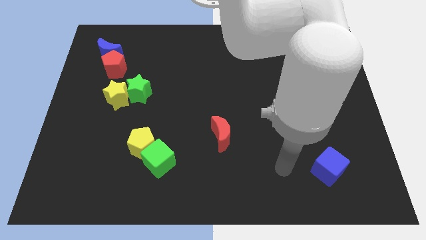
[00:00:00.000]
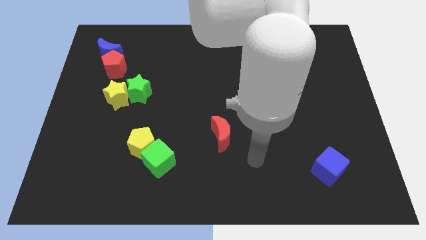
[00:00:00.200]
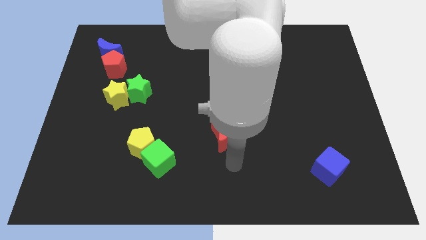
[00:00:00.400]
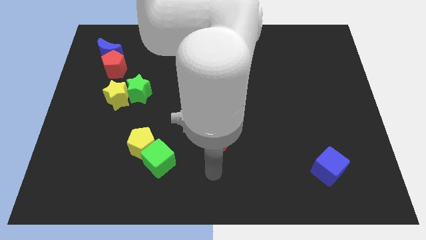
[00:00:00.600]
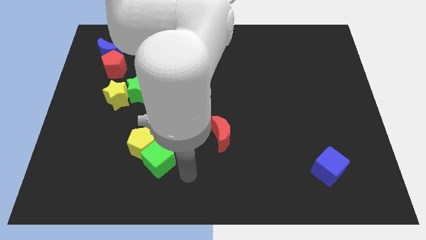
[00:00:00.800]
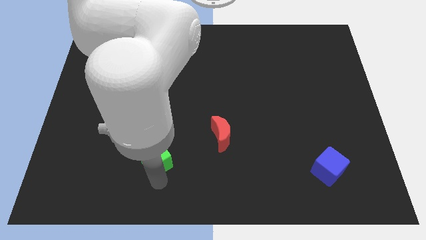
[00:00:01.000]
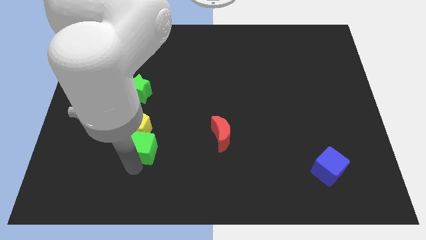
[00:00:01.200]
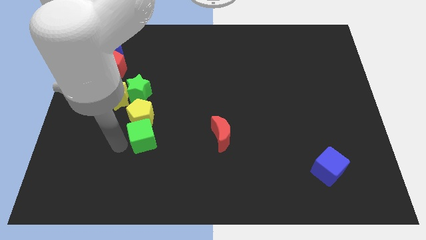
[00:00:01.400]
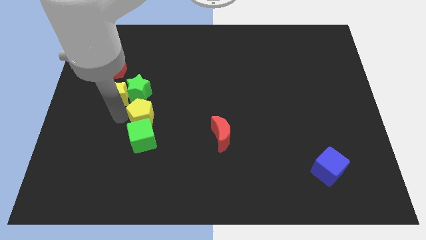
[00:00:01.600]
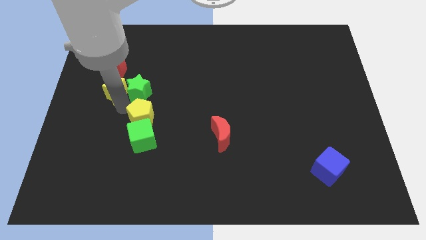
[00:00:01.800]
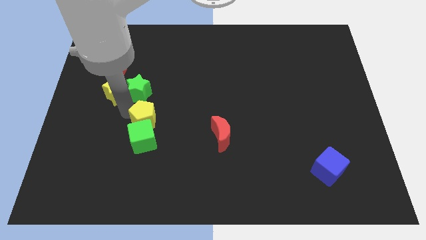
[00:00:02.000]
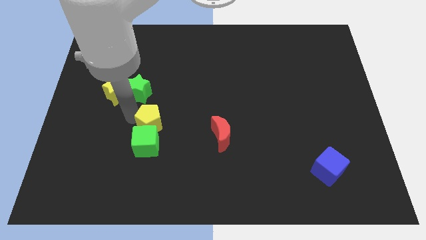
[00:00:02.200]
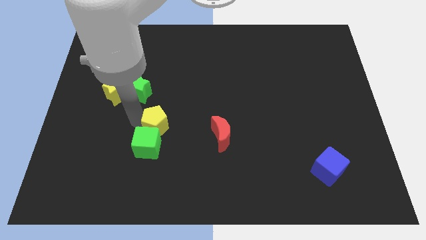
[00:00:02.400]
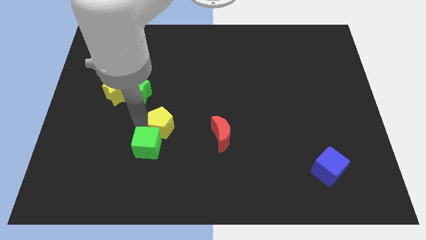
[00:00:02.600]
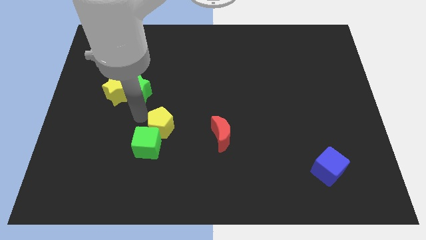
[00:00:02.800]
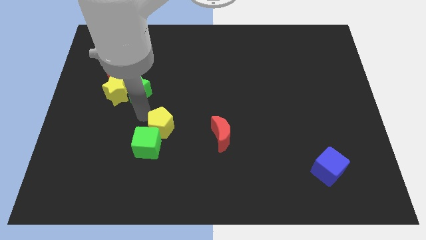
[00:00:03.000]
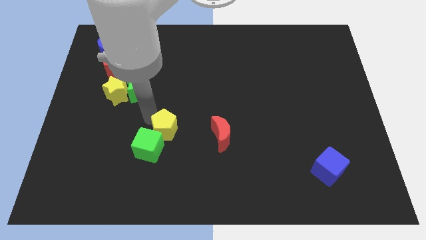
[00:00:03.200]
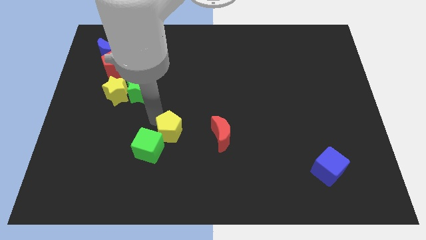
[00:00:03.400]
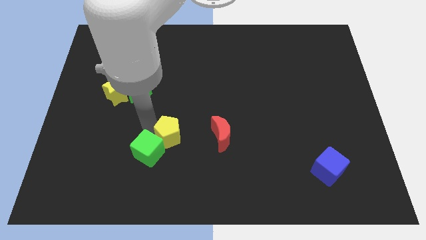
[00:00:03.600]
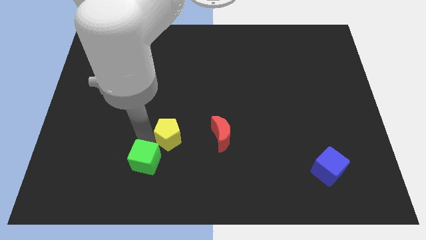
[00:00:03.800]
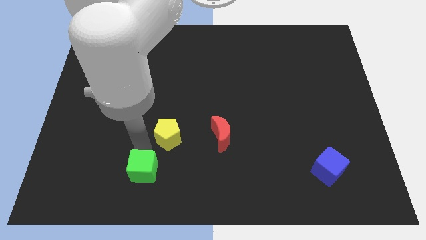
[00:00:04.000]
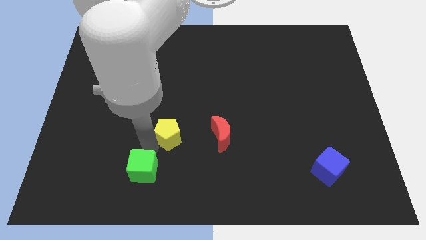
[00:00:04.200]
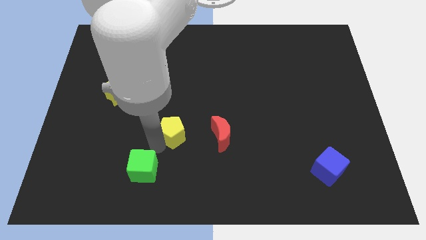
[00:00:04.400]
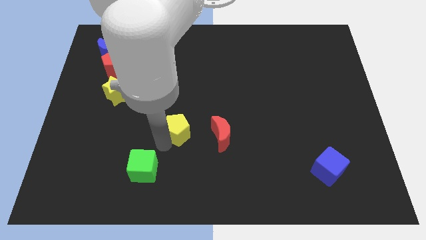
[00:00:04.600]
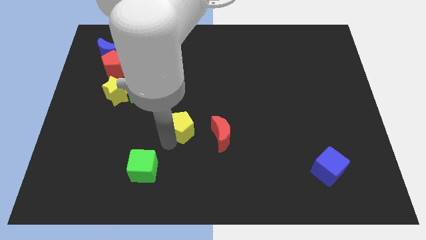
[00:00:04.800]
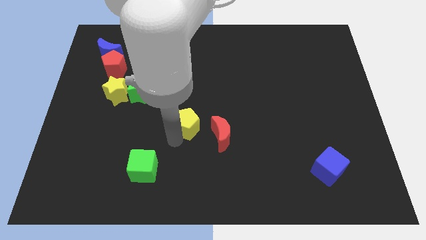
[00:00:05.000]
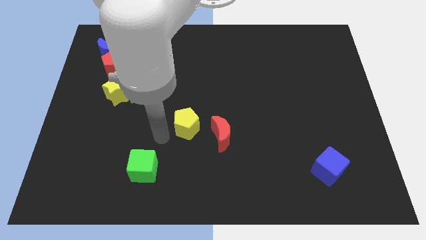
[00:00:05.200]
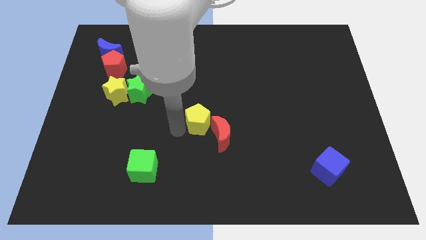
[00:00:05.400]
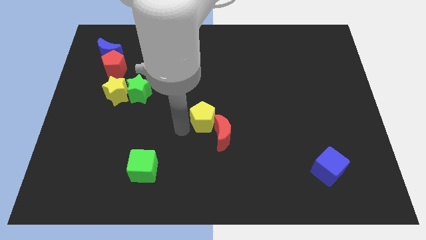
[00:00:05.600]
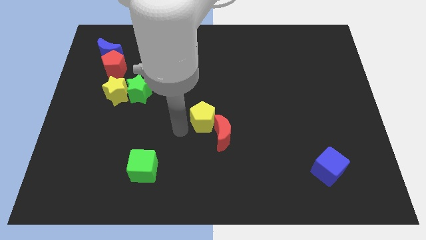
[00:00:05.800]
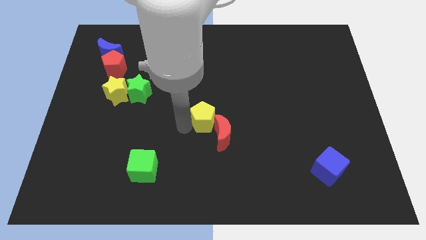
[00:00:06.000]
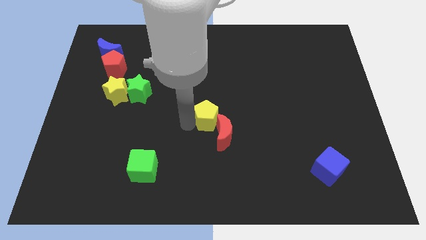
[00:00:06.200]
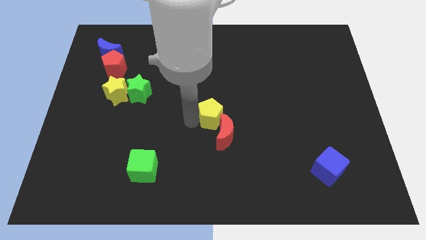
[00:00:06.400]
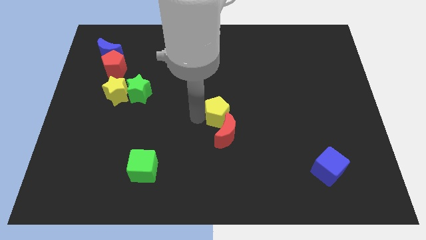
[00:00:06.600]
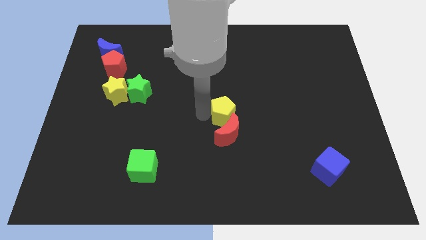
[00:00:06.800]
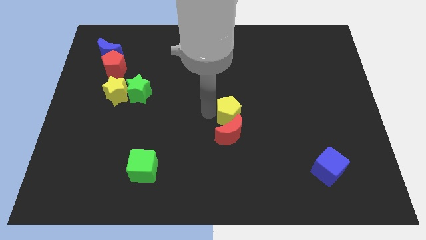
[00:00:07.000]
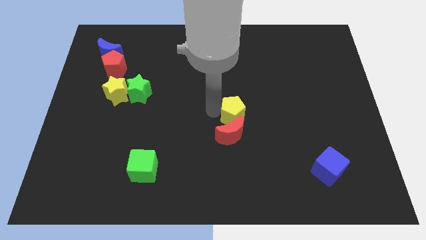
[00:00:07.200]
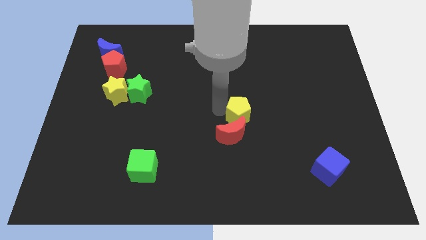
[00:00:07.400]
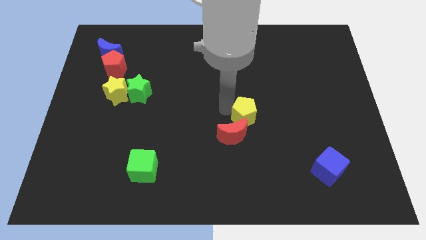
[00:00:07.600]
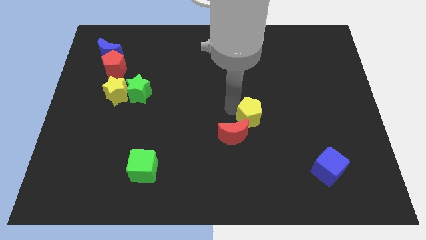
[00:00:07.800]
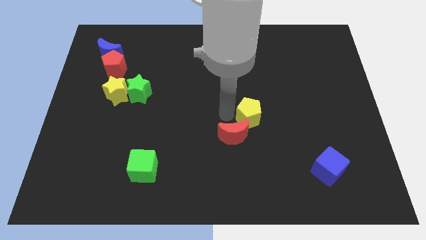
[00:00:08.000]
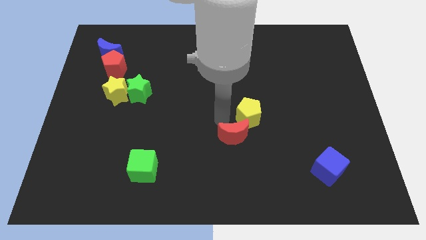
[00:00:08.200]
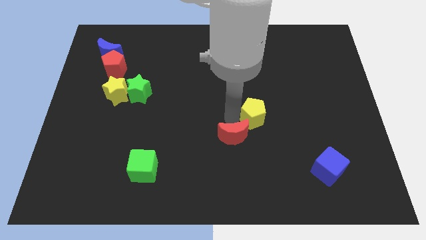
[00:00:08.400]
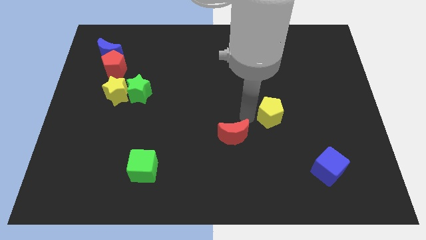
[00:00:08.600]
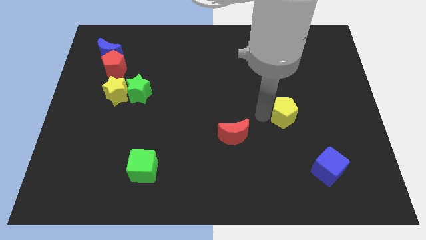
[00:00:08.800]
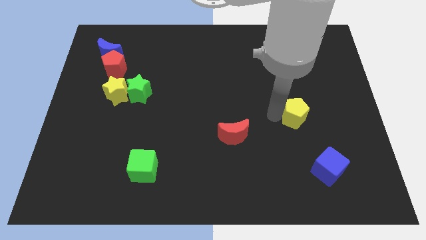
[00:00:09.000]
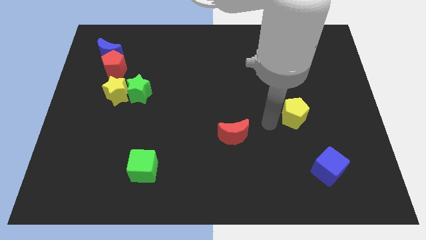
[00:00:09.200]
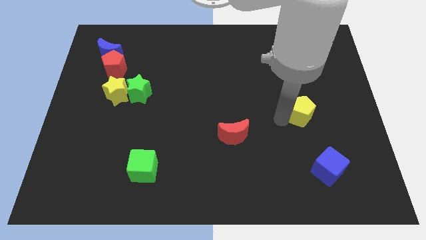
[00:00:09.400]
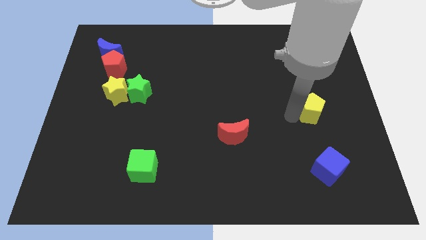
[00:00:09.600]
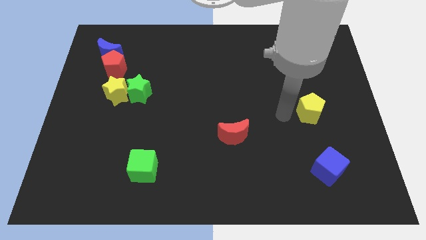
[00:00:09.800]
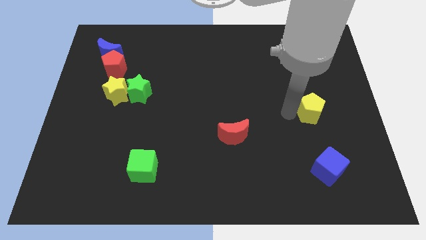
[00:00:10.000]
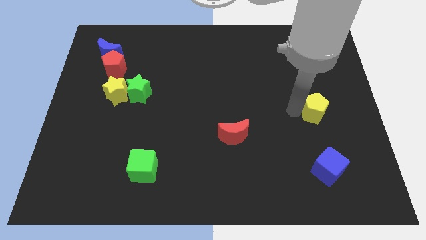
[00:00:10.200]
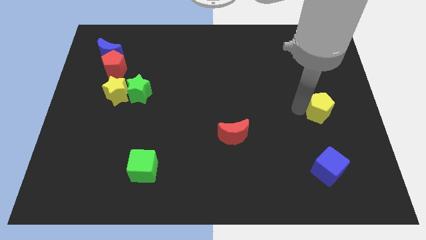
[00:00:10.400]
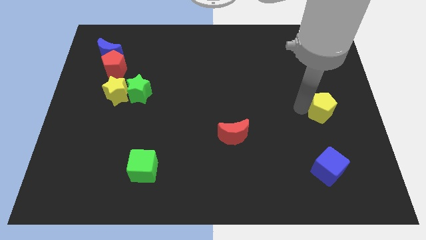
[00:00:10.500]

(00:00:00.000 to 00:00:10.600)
push the yellow pentagon to the right side of the board

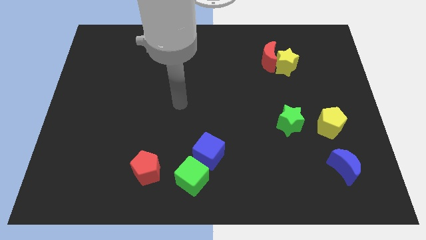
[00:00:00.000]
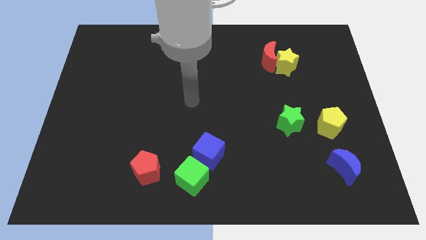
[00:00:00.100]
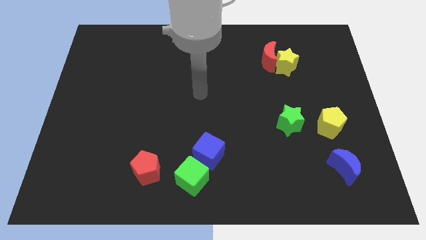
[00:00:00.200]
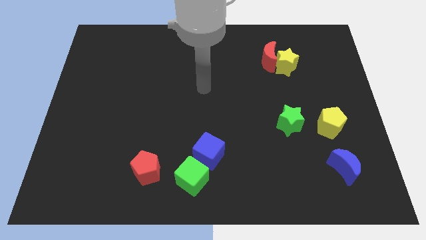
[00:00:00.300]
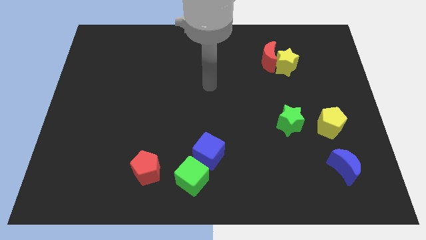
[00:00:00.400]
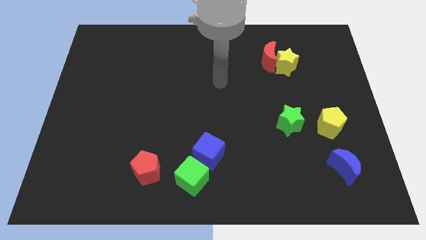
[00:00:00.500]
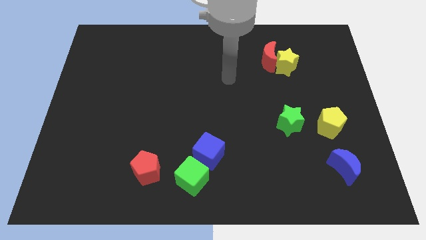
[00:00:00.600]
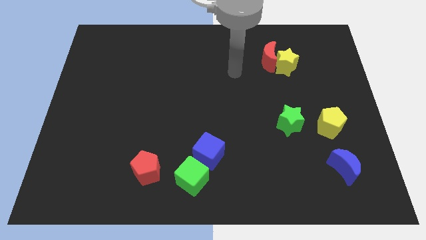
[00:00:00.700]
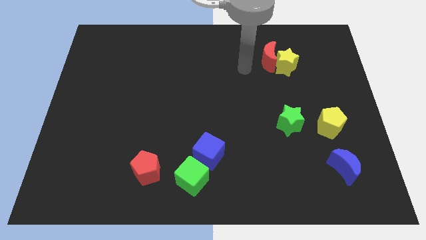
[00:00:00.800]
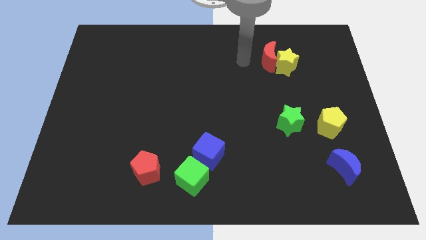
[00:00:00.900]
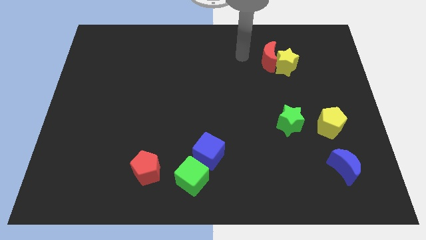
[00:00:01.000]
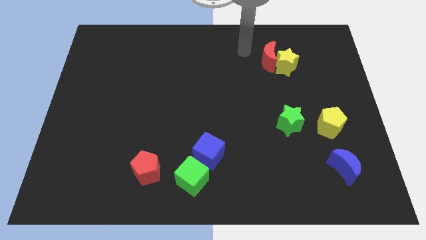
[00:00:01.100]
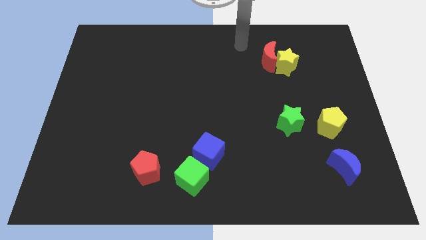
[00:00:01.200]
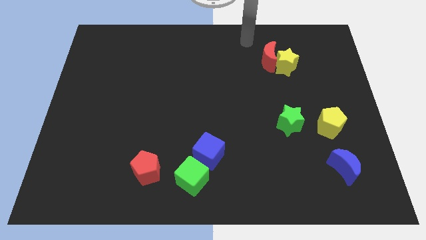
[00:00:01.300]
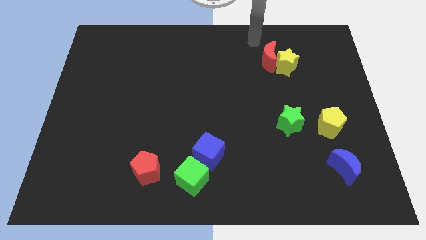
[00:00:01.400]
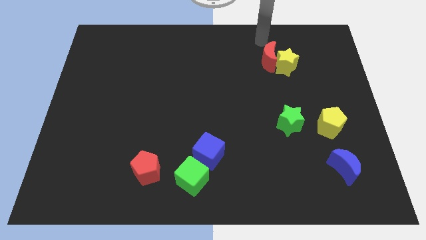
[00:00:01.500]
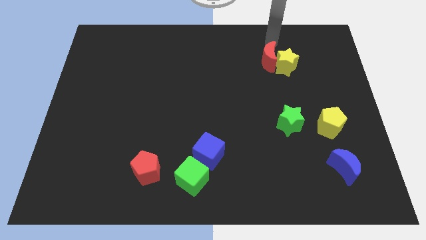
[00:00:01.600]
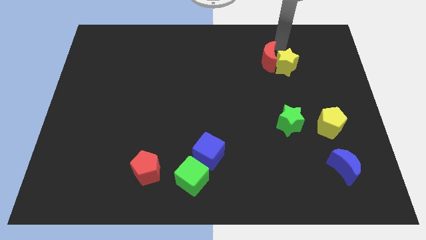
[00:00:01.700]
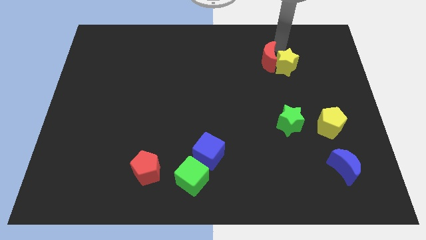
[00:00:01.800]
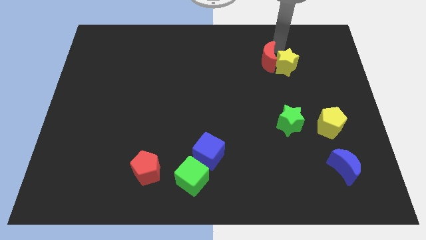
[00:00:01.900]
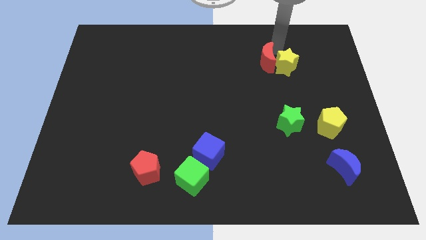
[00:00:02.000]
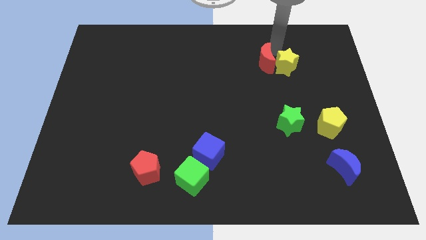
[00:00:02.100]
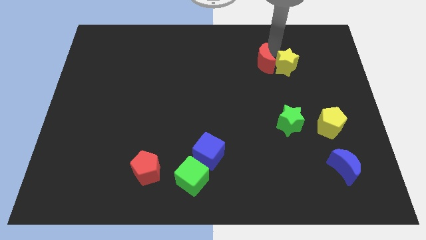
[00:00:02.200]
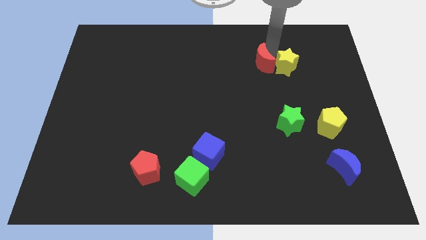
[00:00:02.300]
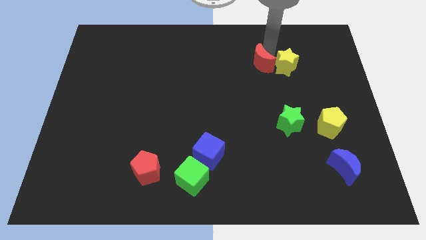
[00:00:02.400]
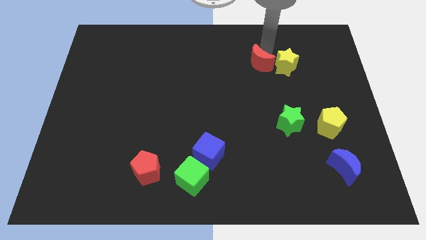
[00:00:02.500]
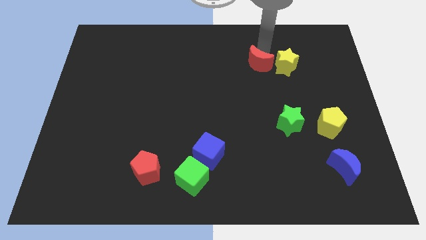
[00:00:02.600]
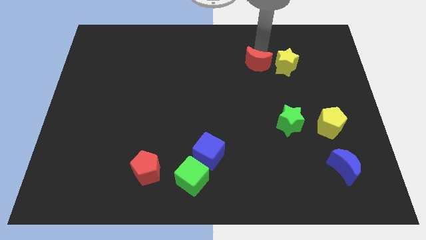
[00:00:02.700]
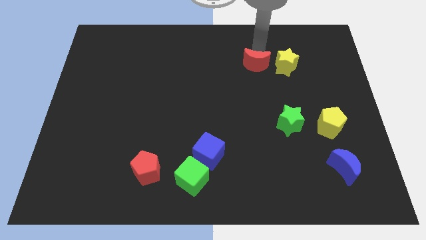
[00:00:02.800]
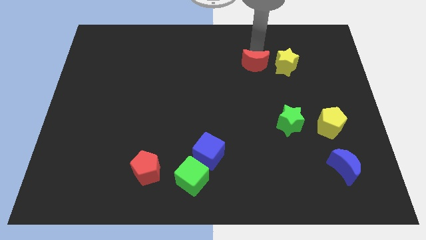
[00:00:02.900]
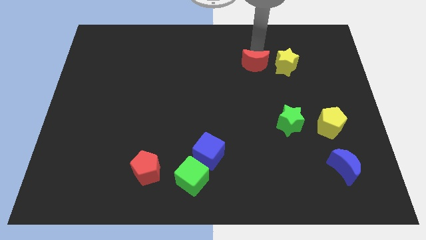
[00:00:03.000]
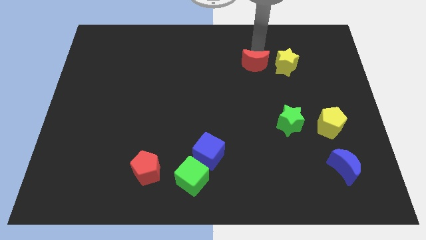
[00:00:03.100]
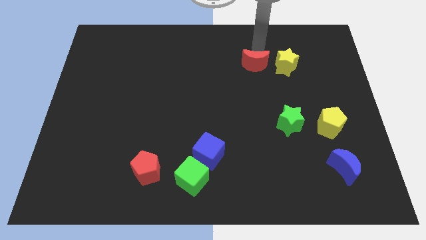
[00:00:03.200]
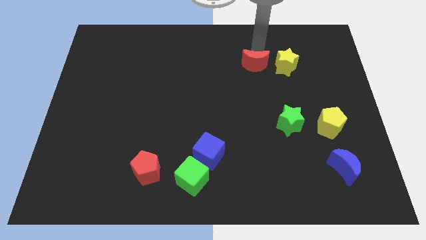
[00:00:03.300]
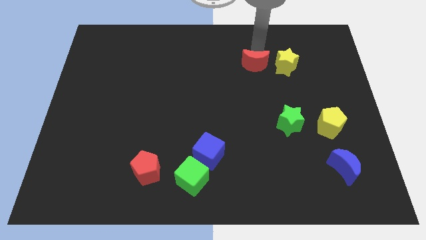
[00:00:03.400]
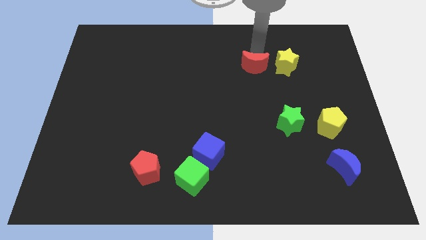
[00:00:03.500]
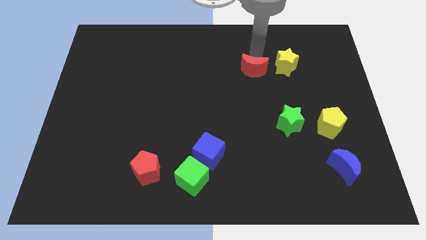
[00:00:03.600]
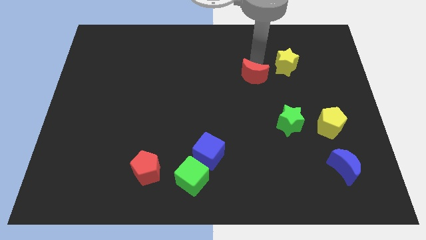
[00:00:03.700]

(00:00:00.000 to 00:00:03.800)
move the red moon to the middle
